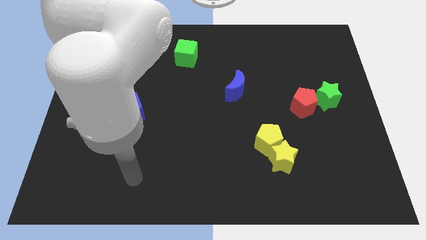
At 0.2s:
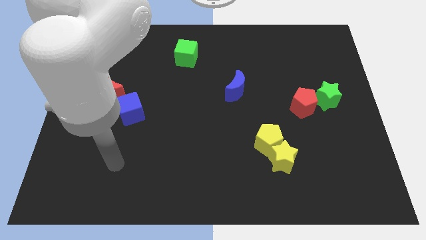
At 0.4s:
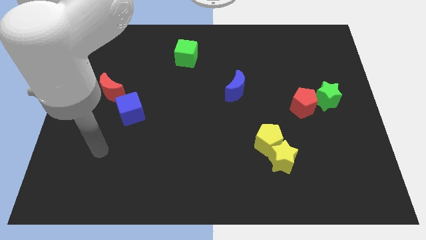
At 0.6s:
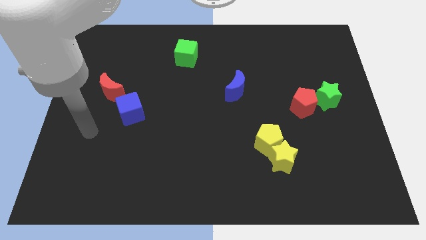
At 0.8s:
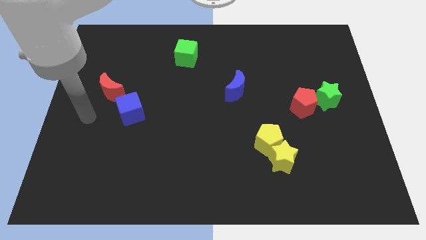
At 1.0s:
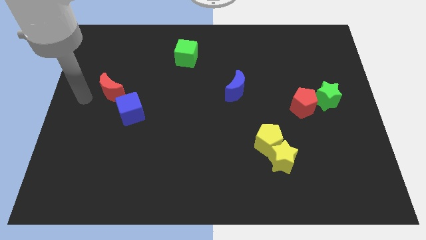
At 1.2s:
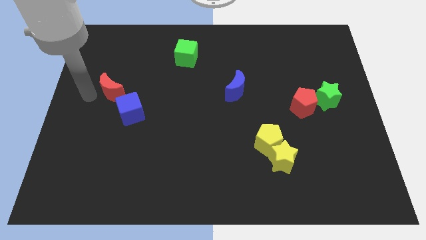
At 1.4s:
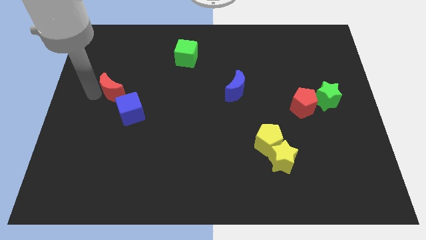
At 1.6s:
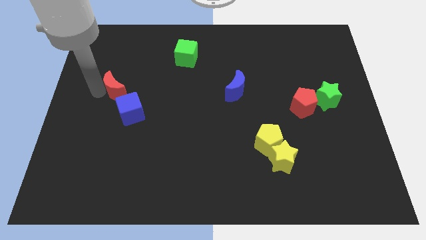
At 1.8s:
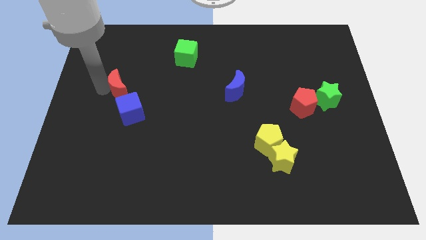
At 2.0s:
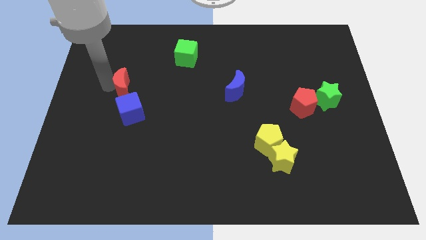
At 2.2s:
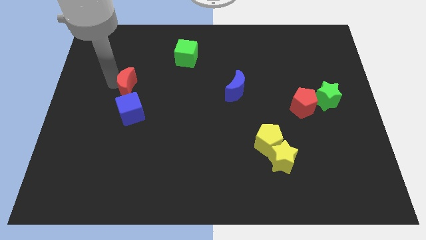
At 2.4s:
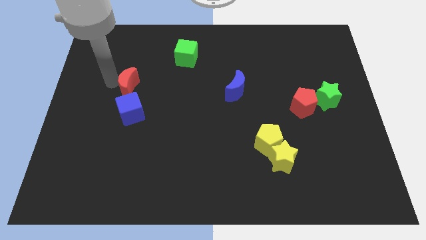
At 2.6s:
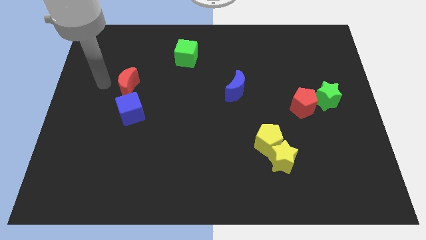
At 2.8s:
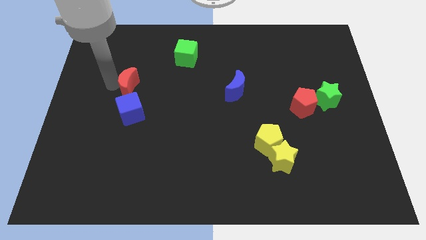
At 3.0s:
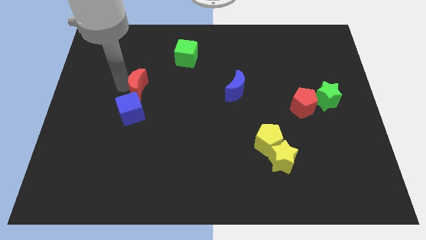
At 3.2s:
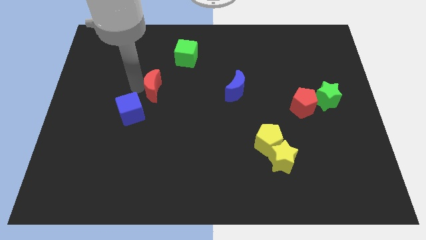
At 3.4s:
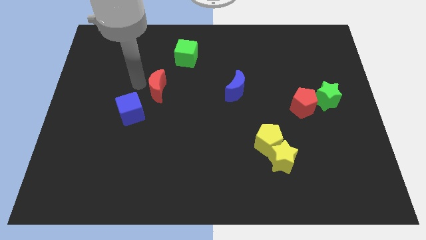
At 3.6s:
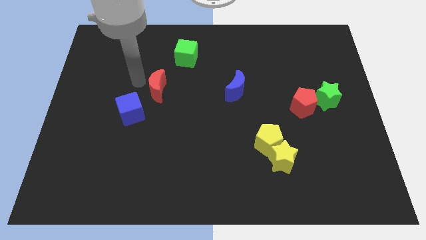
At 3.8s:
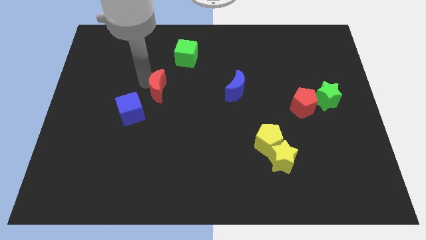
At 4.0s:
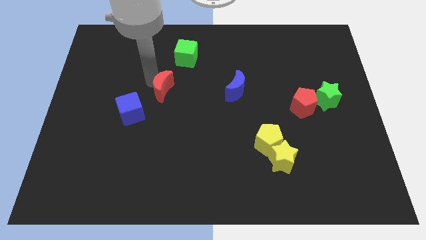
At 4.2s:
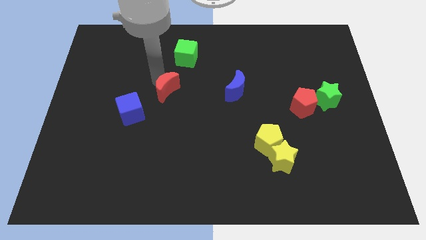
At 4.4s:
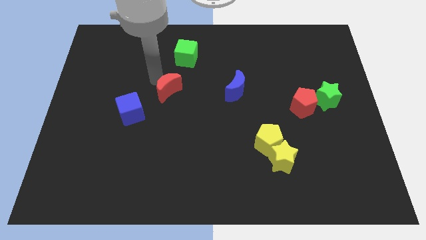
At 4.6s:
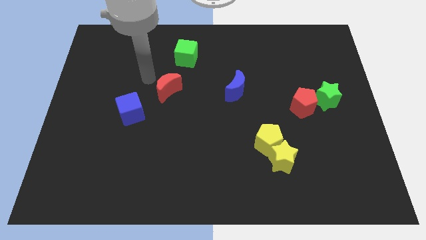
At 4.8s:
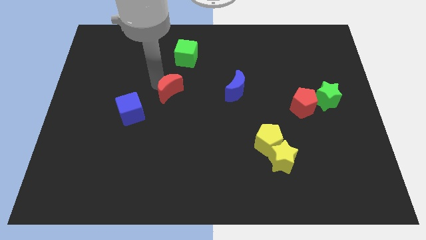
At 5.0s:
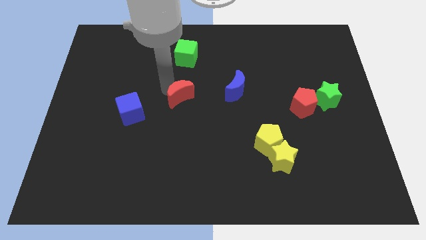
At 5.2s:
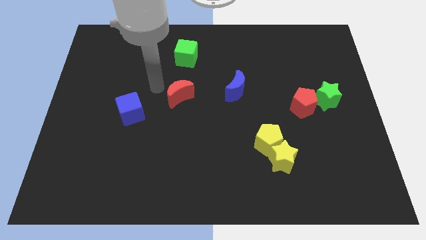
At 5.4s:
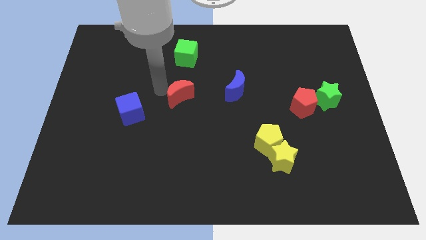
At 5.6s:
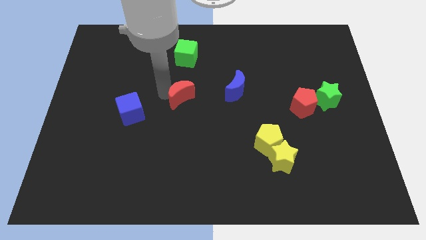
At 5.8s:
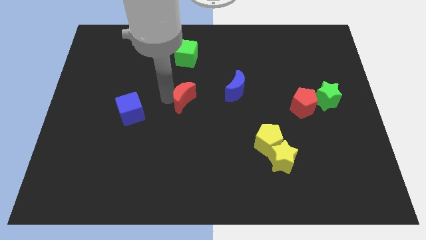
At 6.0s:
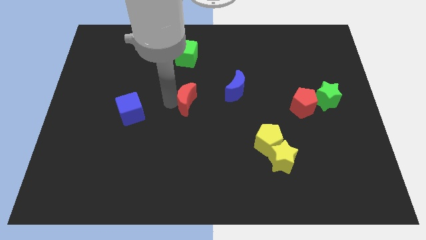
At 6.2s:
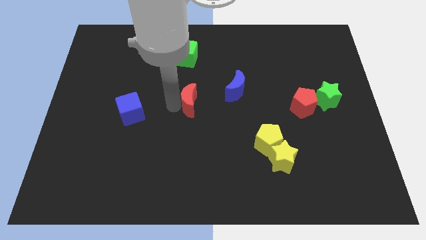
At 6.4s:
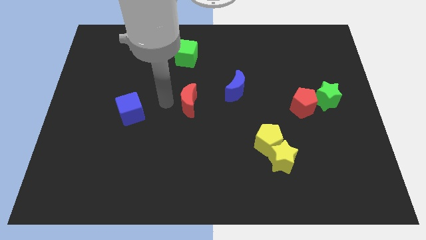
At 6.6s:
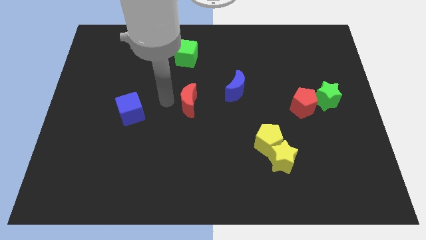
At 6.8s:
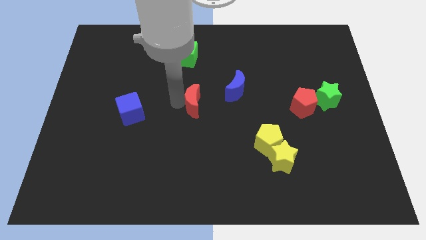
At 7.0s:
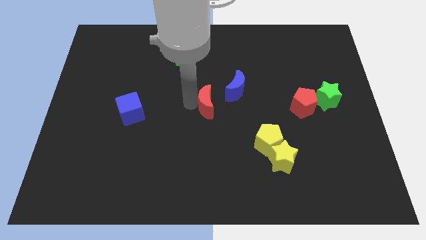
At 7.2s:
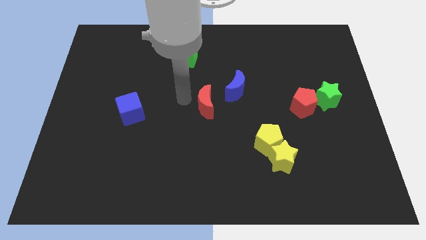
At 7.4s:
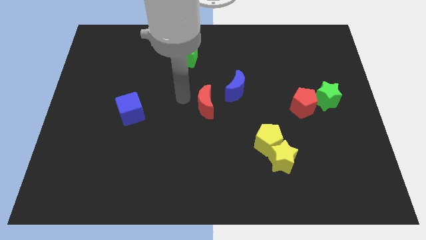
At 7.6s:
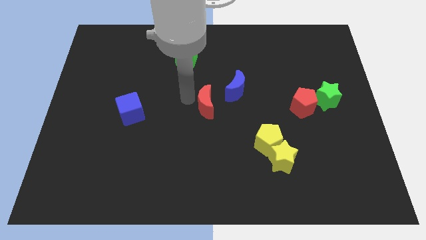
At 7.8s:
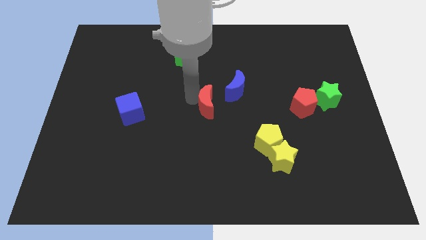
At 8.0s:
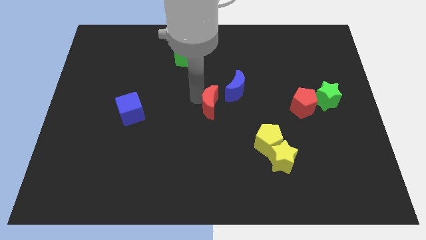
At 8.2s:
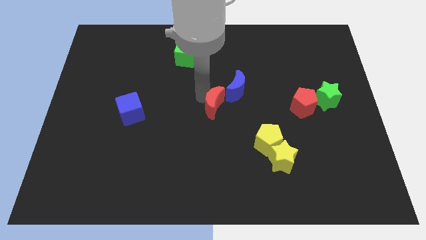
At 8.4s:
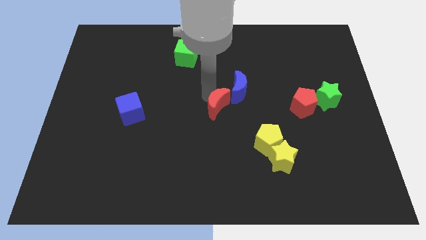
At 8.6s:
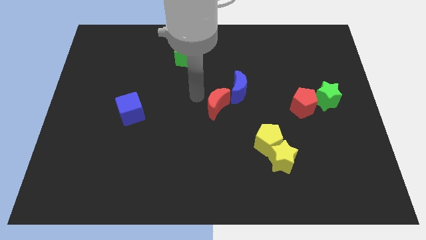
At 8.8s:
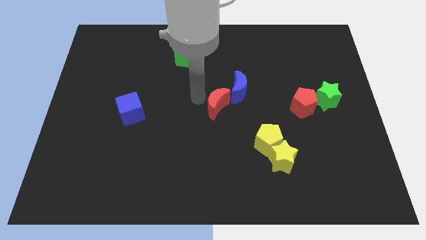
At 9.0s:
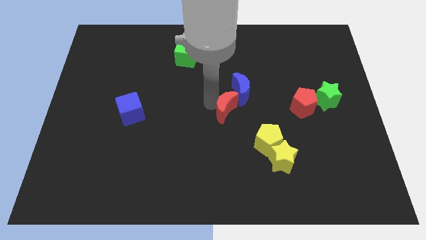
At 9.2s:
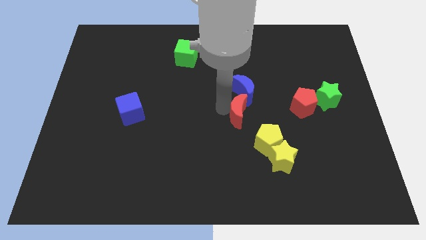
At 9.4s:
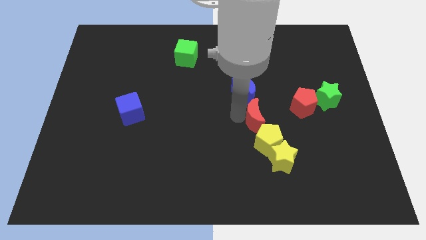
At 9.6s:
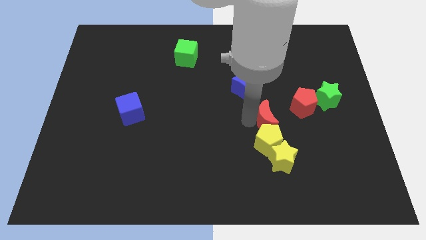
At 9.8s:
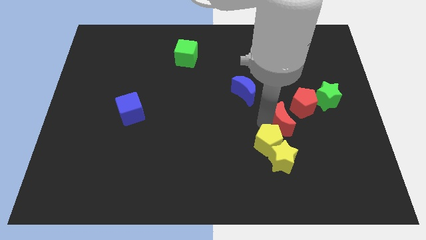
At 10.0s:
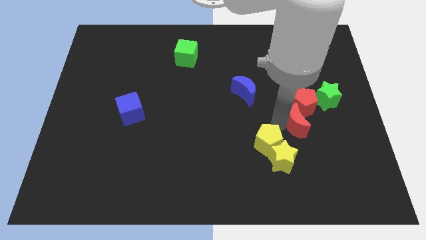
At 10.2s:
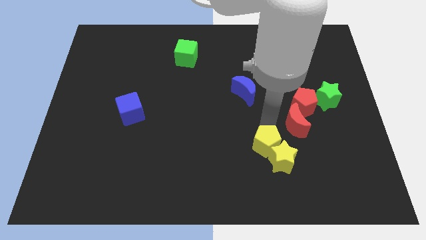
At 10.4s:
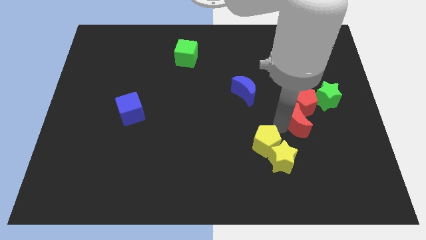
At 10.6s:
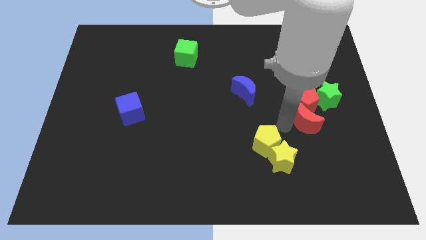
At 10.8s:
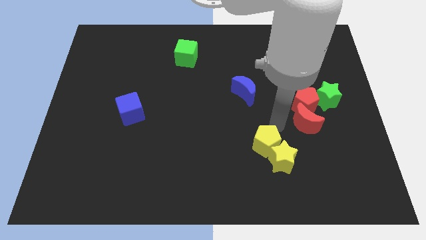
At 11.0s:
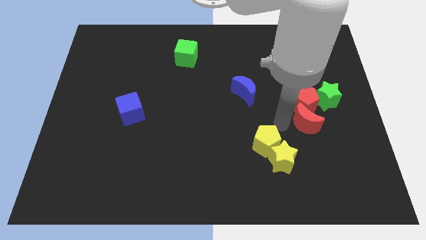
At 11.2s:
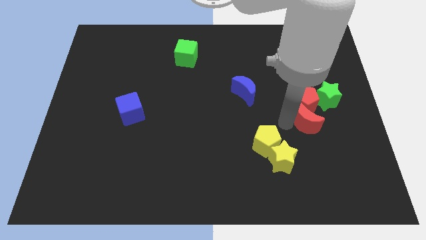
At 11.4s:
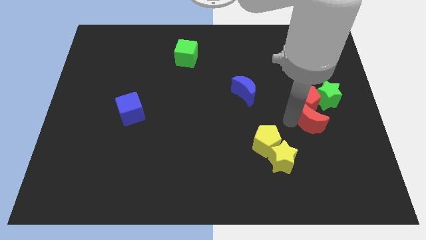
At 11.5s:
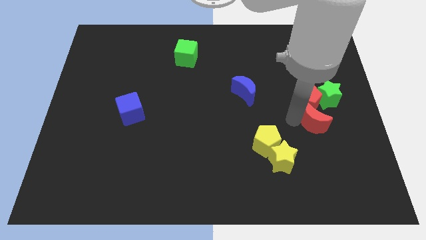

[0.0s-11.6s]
slide the red moon to the bottom side of the green star

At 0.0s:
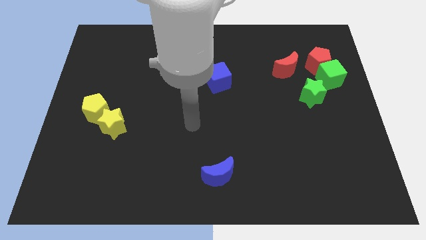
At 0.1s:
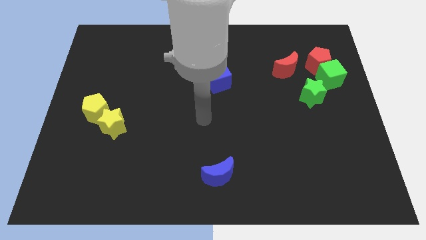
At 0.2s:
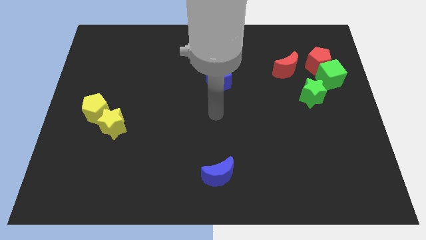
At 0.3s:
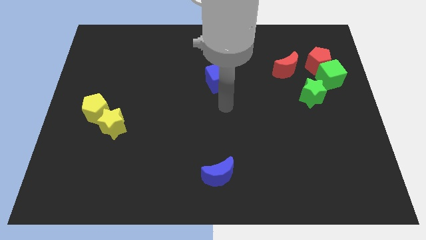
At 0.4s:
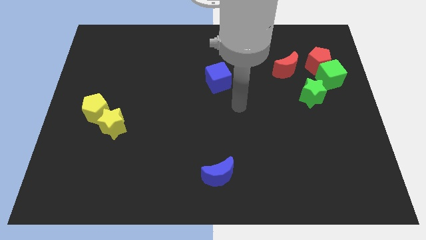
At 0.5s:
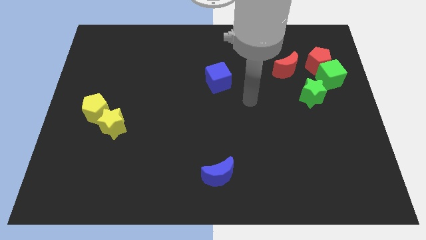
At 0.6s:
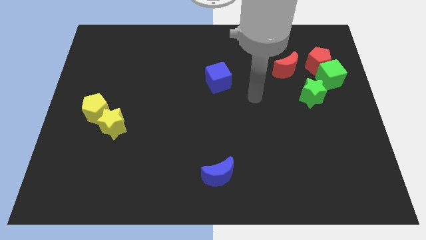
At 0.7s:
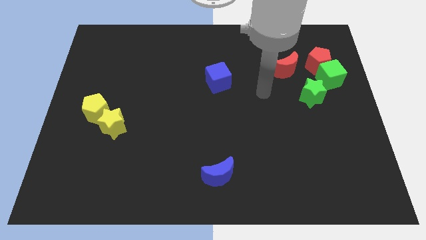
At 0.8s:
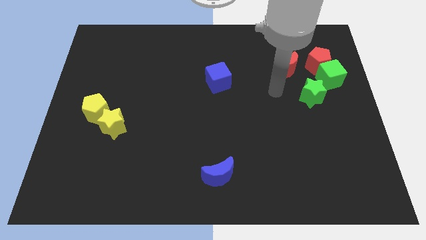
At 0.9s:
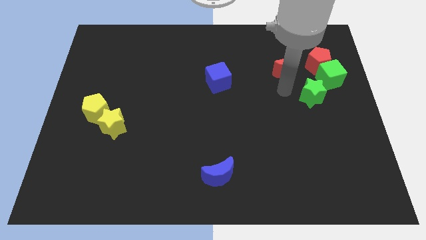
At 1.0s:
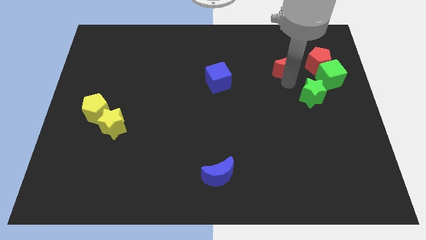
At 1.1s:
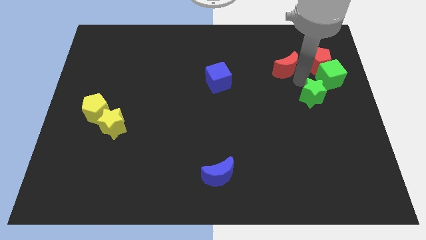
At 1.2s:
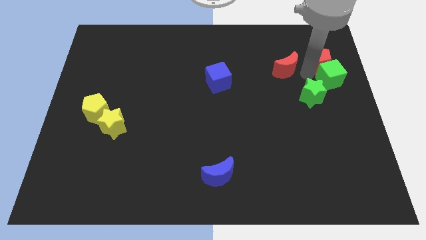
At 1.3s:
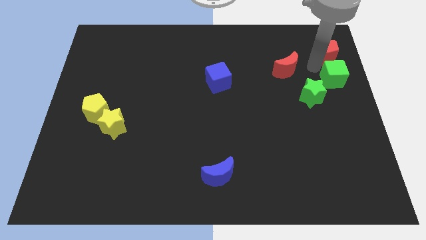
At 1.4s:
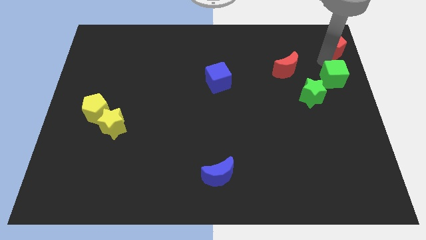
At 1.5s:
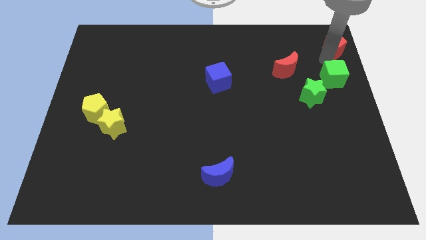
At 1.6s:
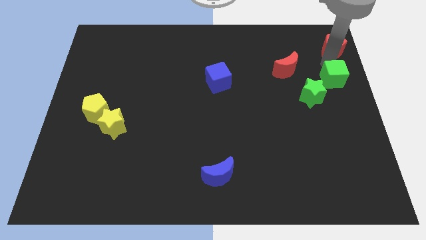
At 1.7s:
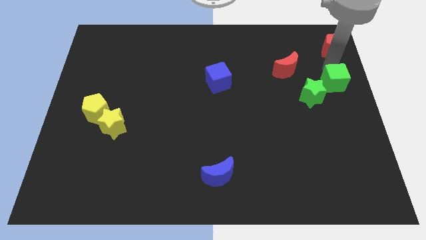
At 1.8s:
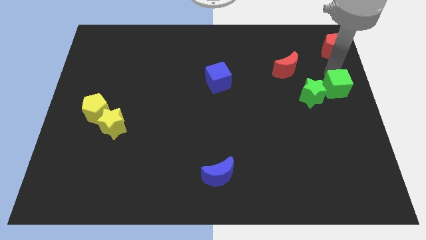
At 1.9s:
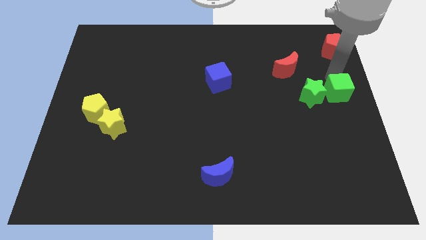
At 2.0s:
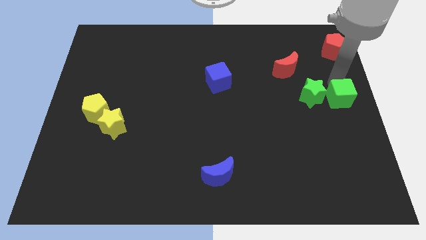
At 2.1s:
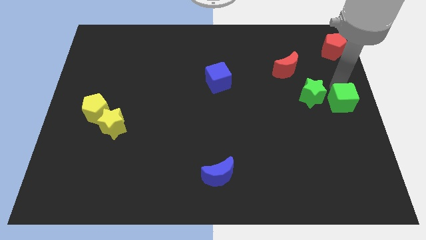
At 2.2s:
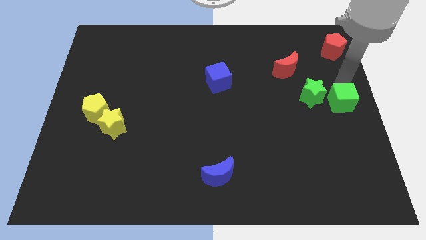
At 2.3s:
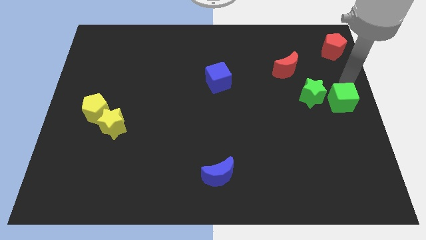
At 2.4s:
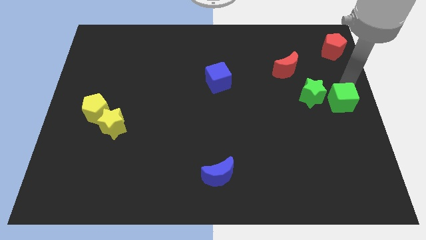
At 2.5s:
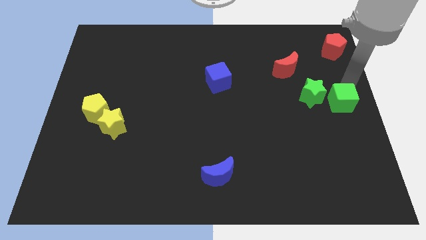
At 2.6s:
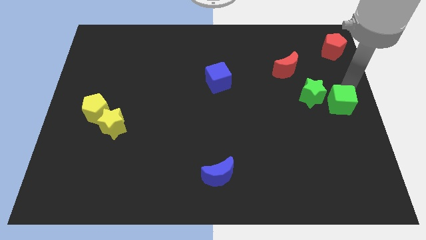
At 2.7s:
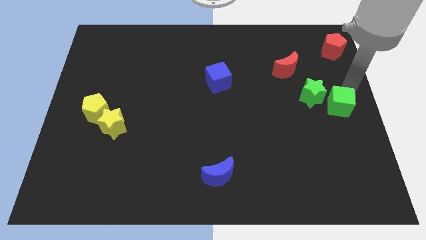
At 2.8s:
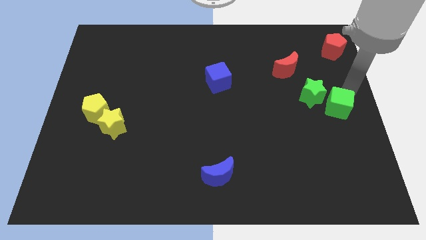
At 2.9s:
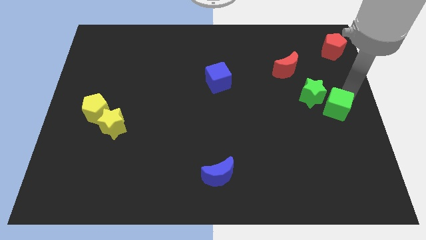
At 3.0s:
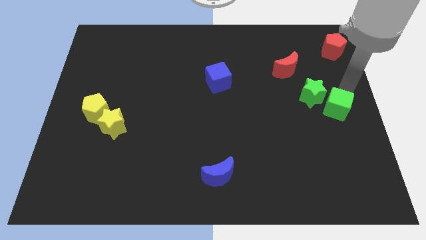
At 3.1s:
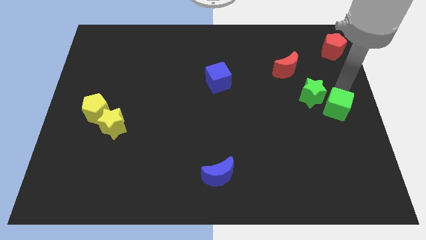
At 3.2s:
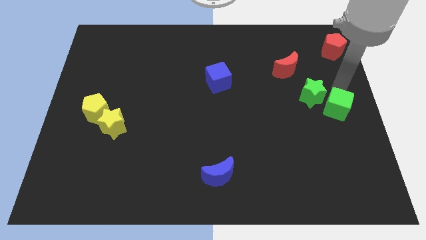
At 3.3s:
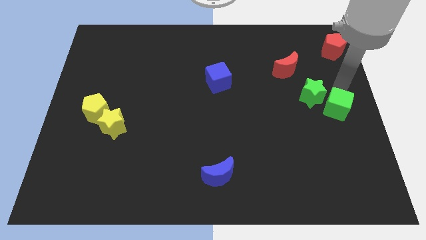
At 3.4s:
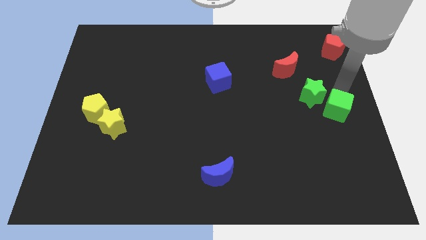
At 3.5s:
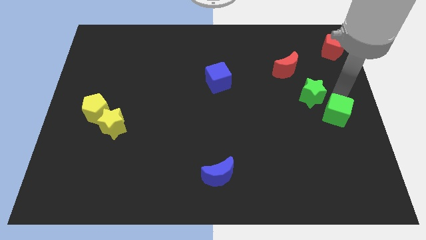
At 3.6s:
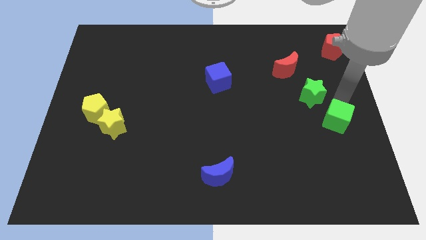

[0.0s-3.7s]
put the green cube to the bottom side of the green star
